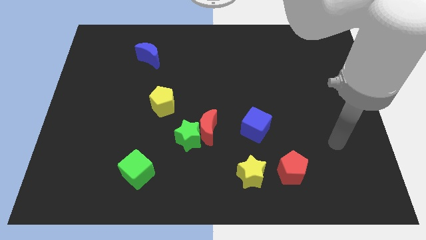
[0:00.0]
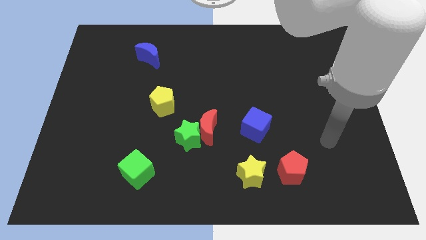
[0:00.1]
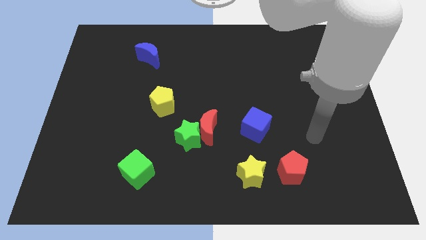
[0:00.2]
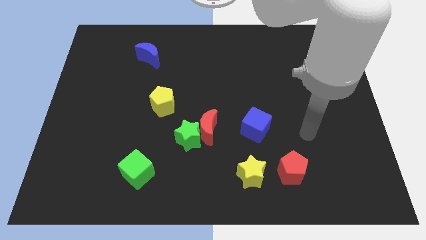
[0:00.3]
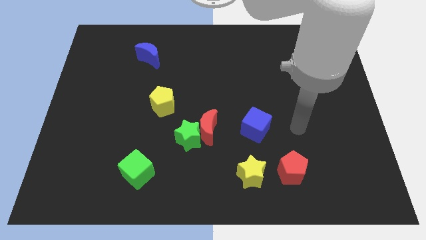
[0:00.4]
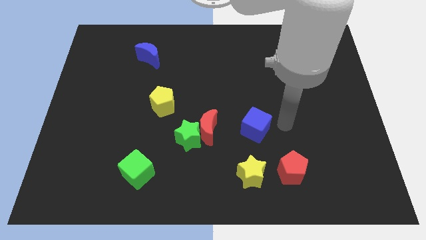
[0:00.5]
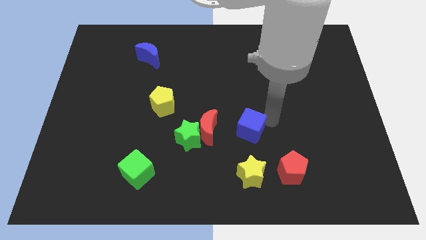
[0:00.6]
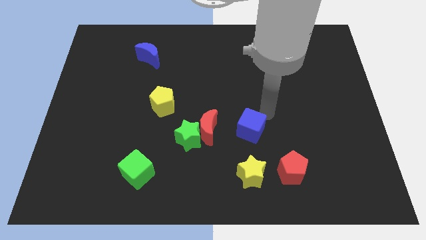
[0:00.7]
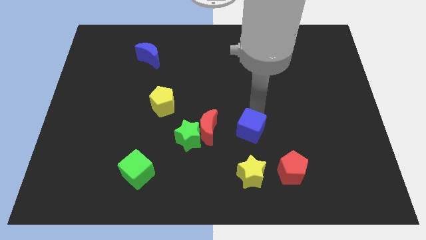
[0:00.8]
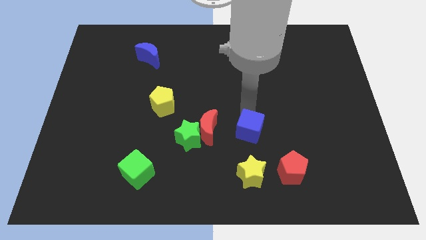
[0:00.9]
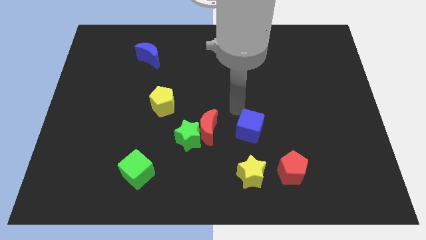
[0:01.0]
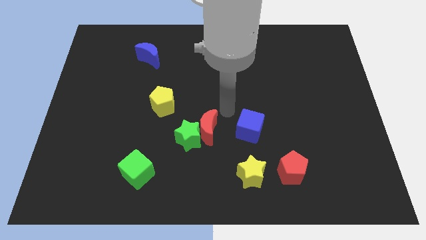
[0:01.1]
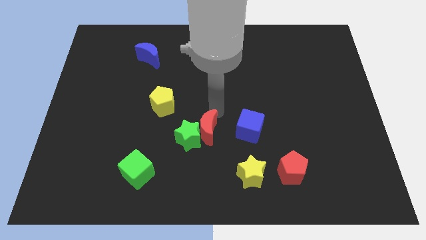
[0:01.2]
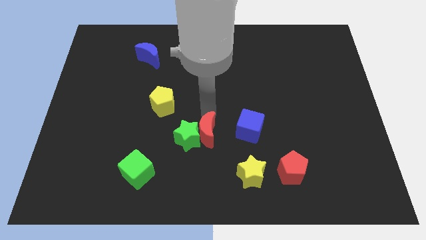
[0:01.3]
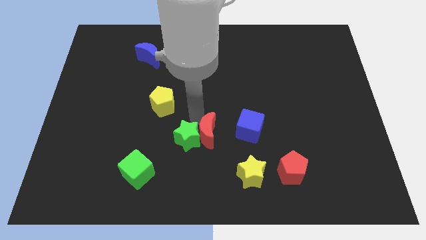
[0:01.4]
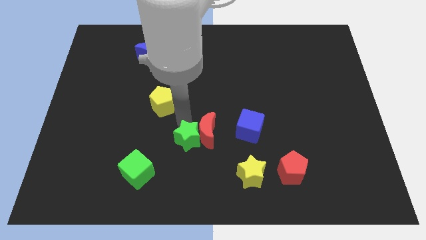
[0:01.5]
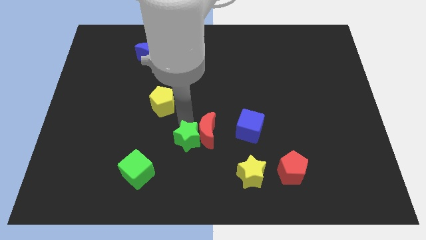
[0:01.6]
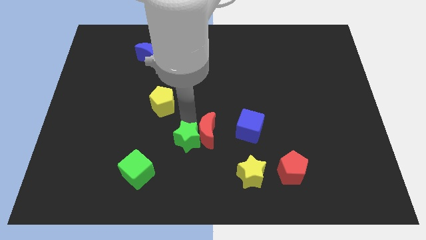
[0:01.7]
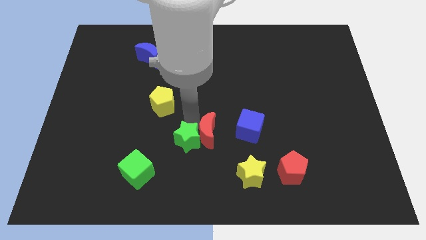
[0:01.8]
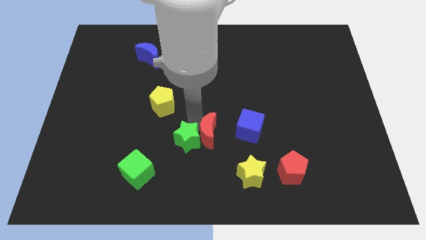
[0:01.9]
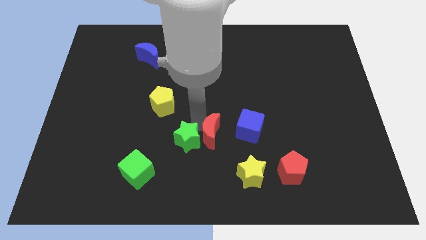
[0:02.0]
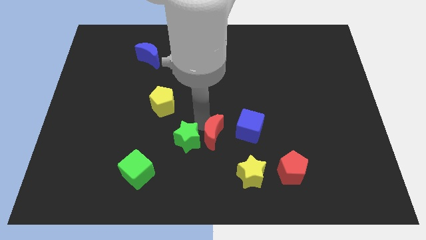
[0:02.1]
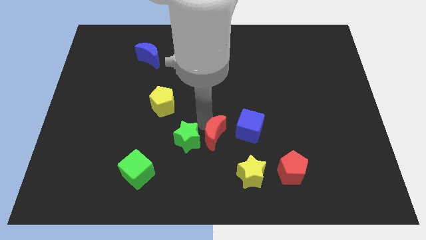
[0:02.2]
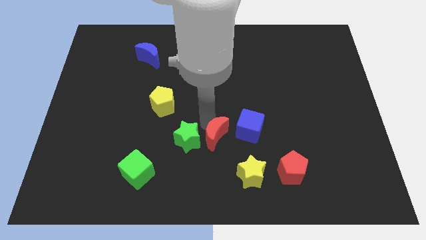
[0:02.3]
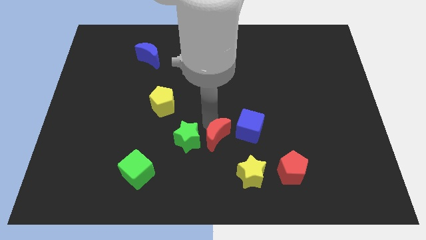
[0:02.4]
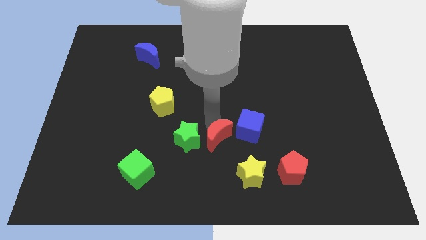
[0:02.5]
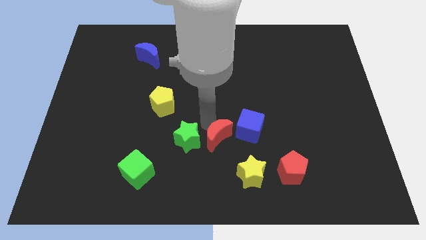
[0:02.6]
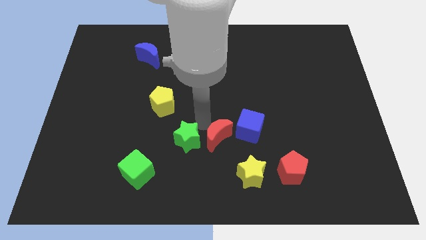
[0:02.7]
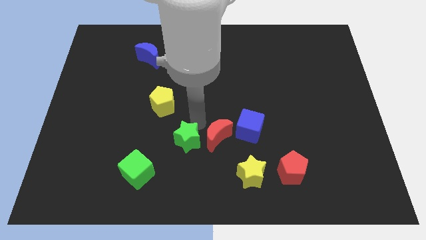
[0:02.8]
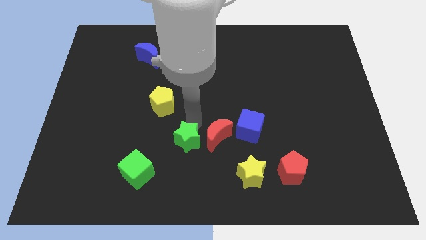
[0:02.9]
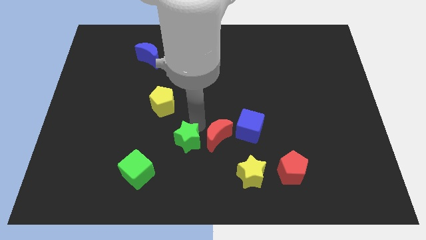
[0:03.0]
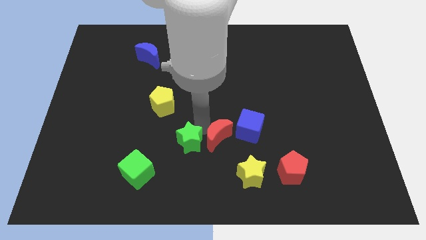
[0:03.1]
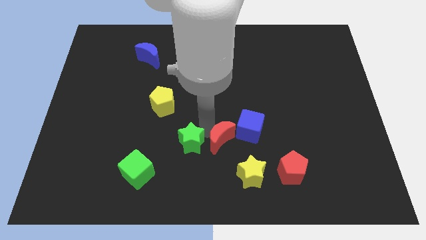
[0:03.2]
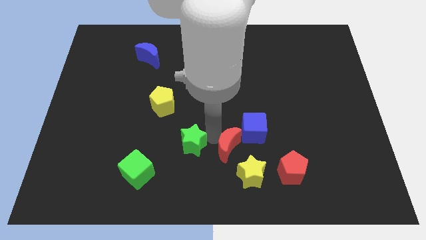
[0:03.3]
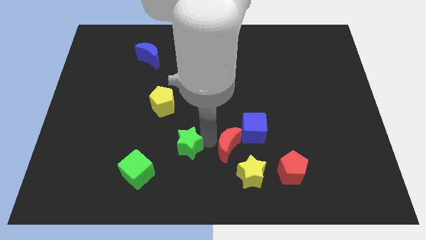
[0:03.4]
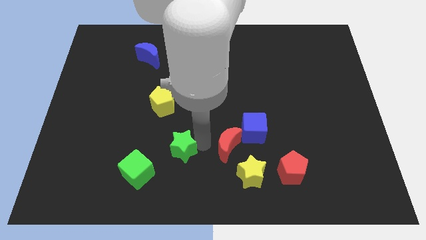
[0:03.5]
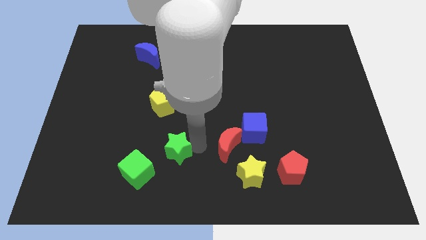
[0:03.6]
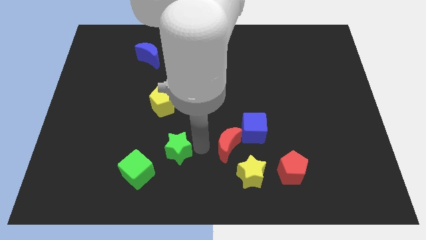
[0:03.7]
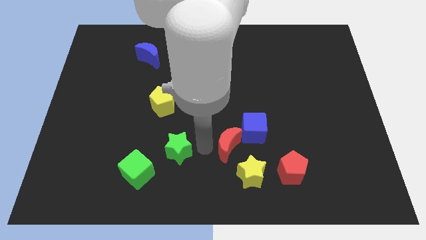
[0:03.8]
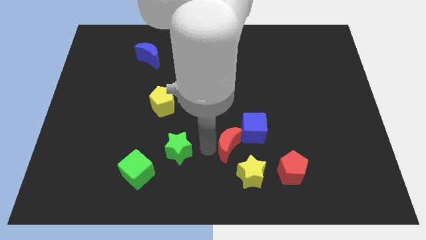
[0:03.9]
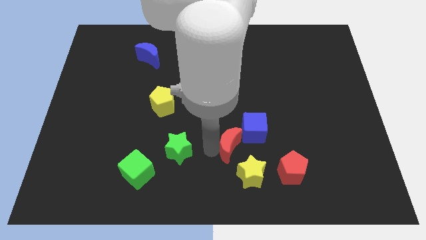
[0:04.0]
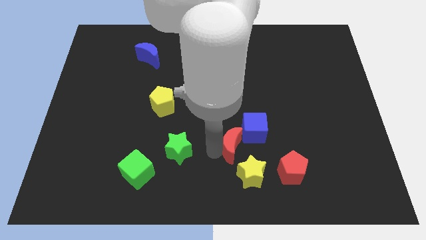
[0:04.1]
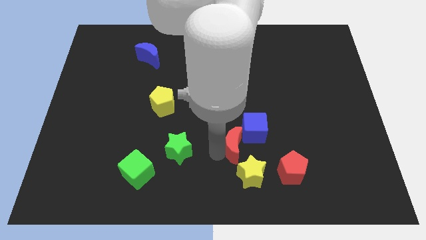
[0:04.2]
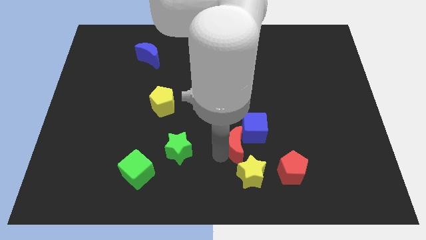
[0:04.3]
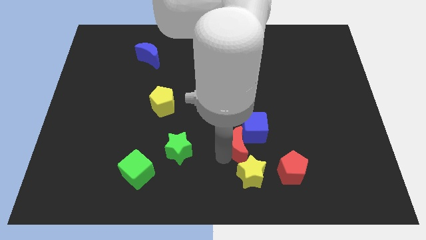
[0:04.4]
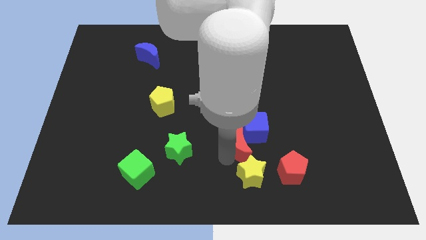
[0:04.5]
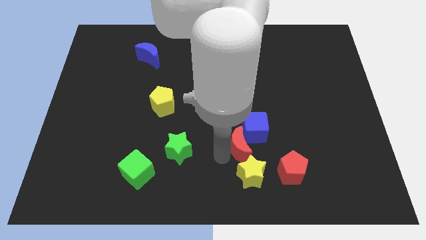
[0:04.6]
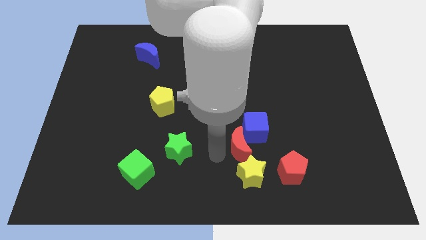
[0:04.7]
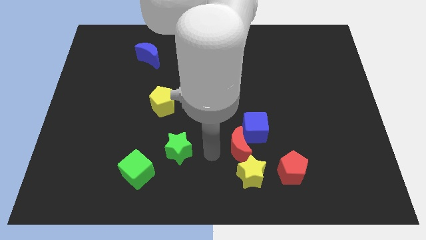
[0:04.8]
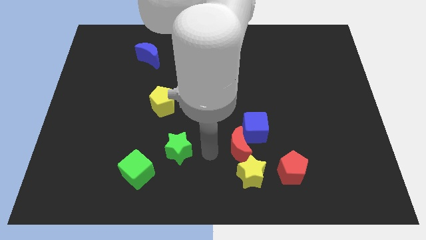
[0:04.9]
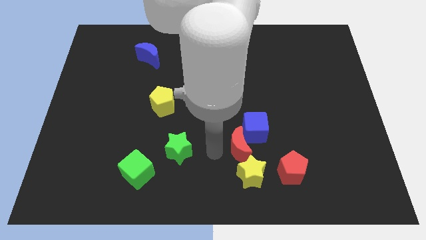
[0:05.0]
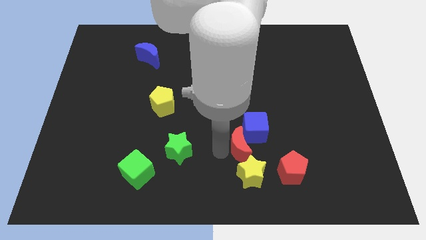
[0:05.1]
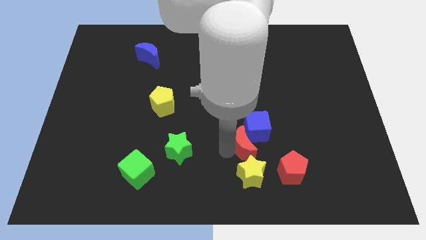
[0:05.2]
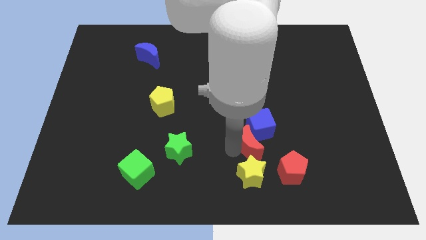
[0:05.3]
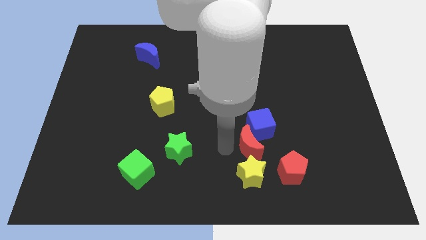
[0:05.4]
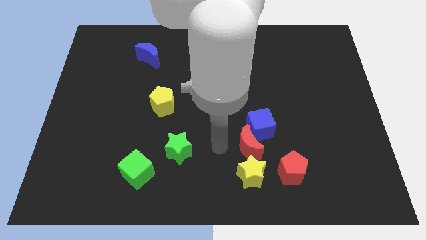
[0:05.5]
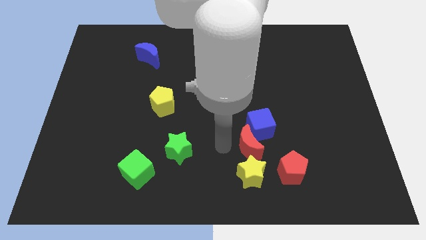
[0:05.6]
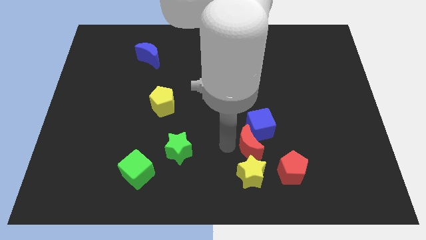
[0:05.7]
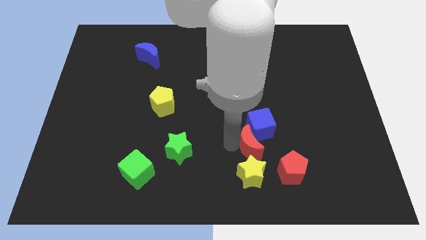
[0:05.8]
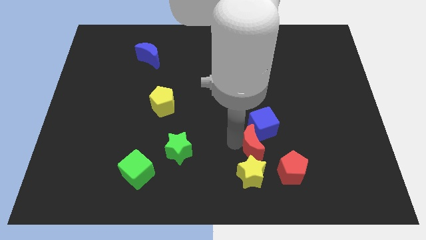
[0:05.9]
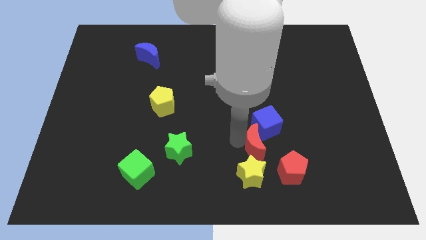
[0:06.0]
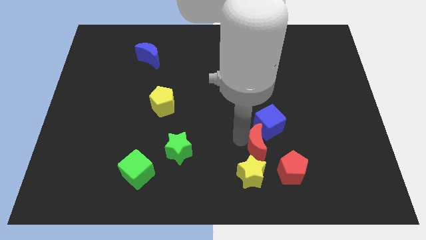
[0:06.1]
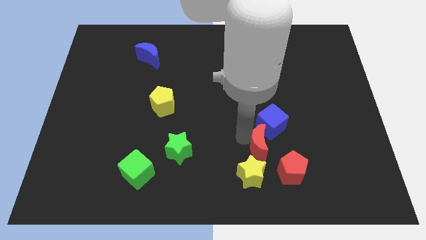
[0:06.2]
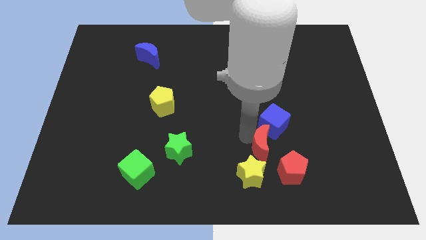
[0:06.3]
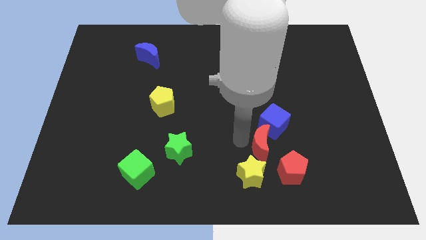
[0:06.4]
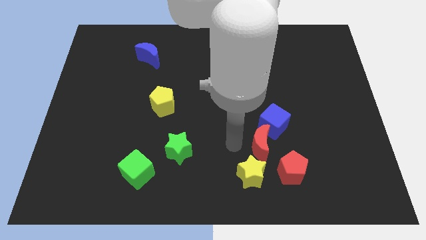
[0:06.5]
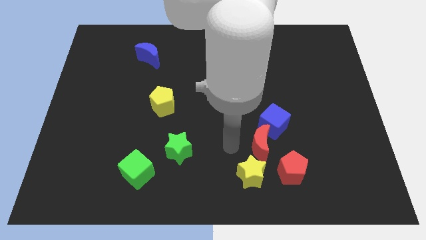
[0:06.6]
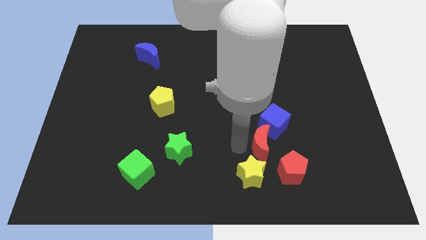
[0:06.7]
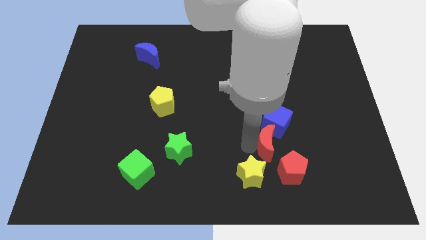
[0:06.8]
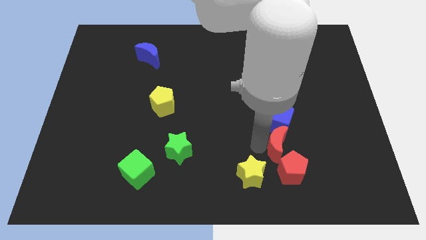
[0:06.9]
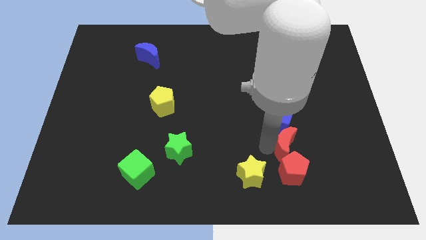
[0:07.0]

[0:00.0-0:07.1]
push the red moon to the bottom right of the blue cube
